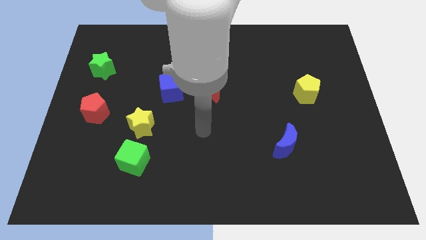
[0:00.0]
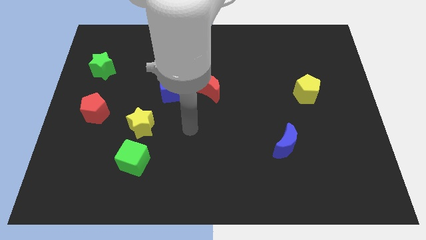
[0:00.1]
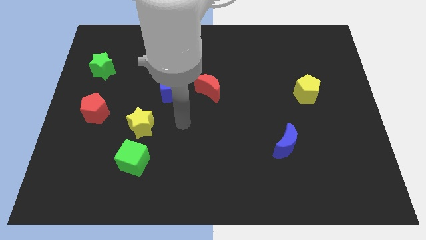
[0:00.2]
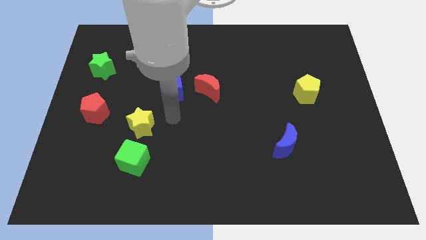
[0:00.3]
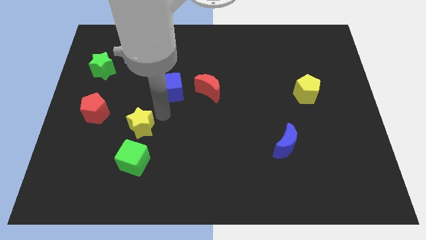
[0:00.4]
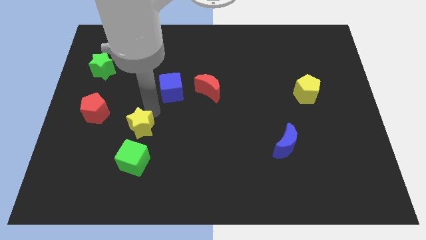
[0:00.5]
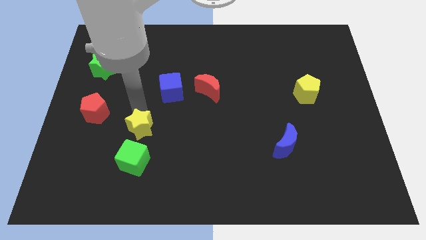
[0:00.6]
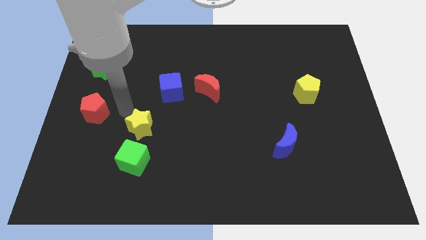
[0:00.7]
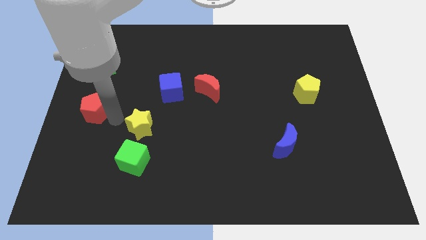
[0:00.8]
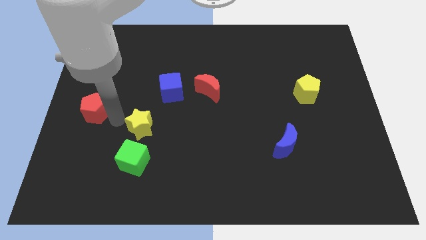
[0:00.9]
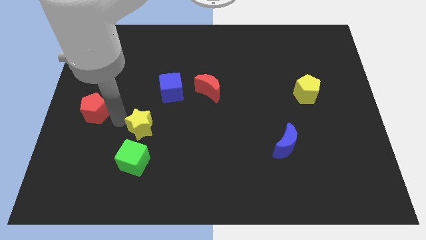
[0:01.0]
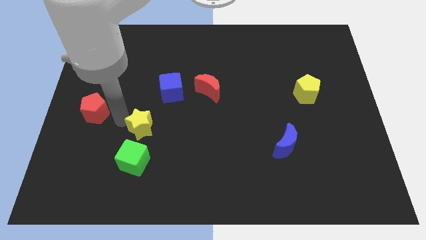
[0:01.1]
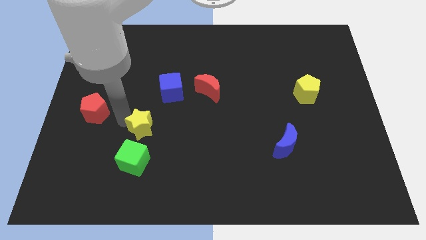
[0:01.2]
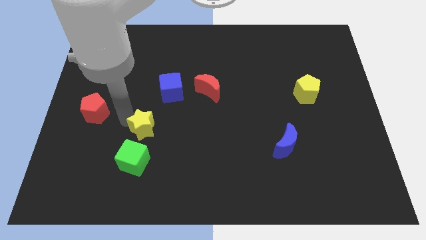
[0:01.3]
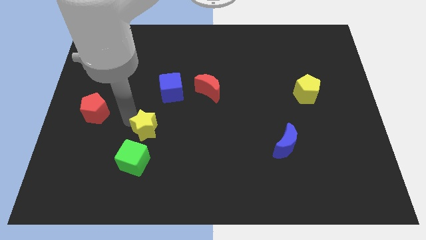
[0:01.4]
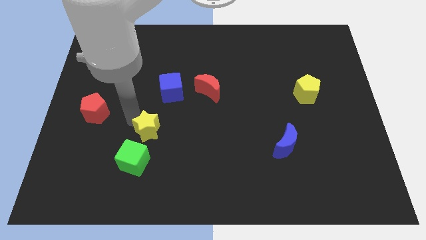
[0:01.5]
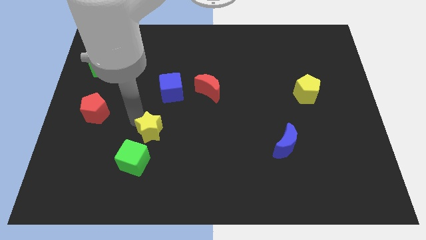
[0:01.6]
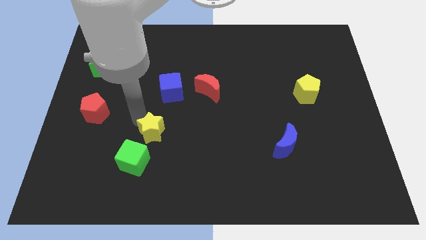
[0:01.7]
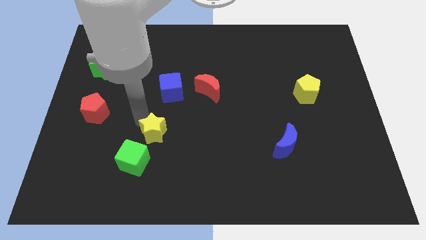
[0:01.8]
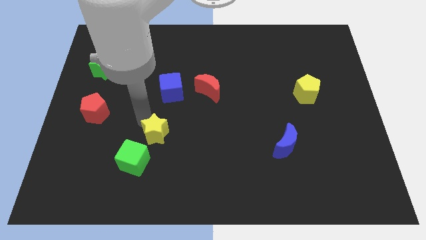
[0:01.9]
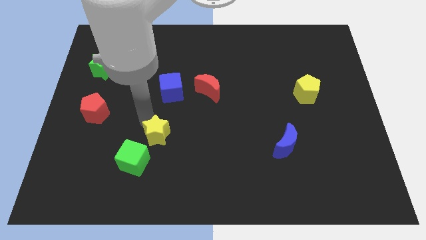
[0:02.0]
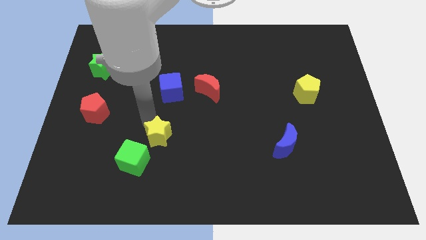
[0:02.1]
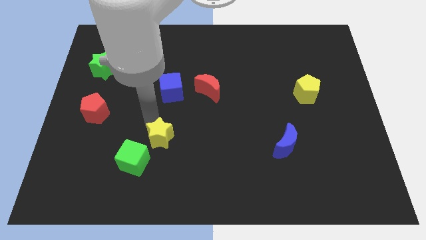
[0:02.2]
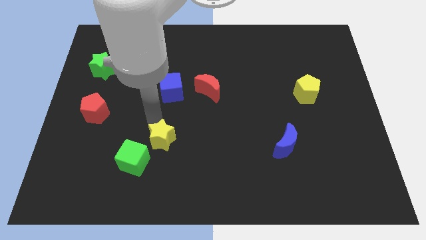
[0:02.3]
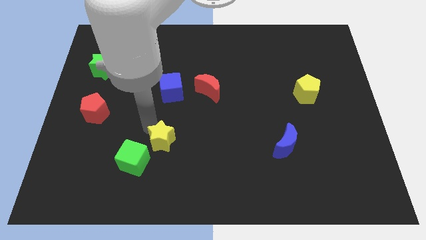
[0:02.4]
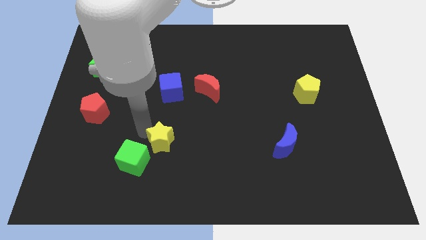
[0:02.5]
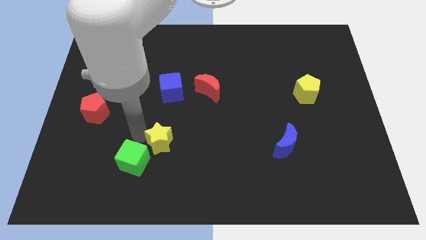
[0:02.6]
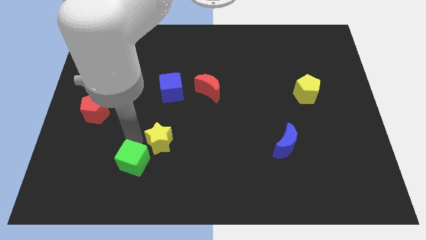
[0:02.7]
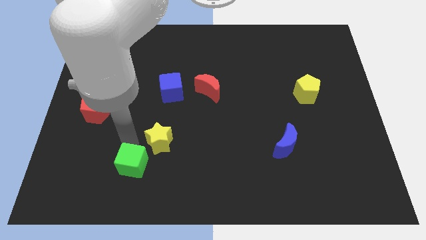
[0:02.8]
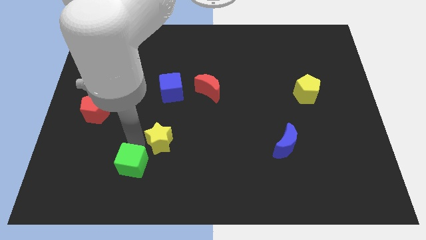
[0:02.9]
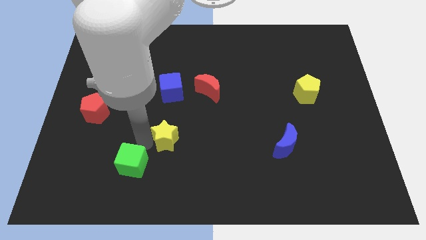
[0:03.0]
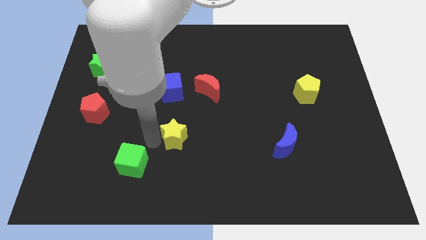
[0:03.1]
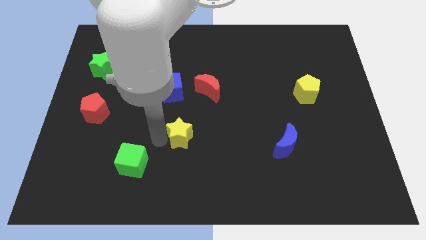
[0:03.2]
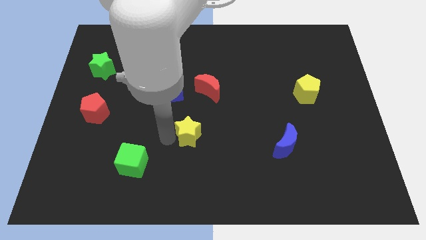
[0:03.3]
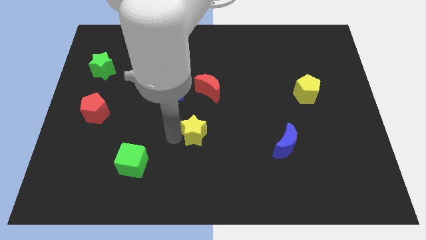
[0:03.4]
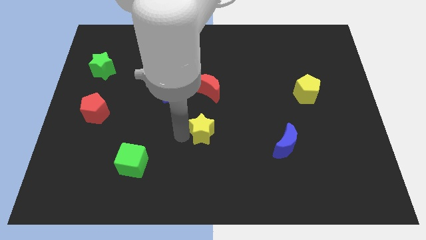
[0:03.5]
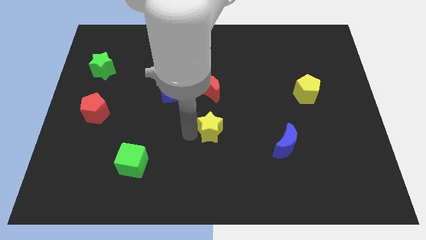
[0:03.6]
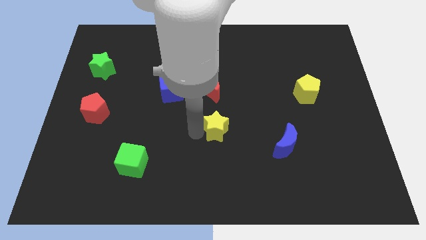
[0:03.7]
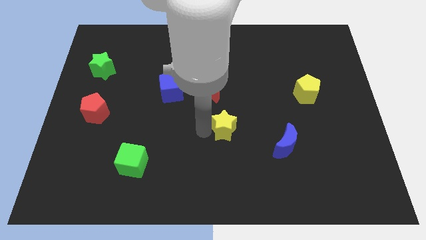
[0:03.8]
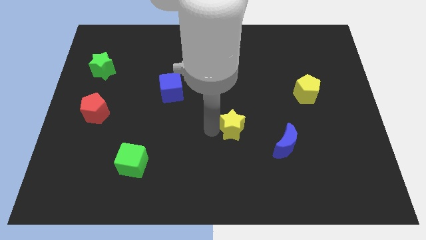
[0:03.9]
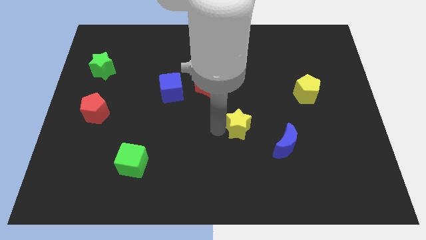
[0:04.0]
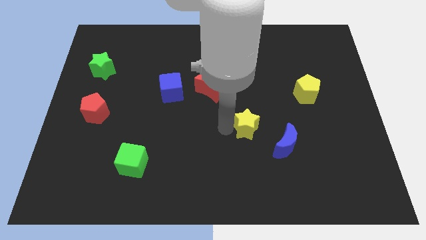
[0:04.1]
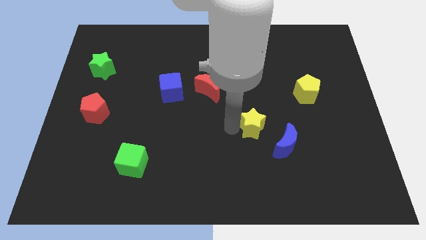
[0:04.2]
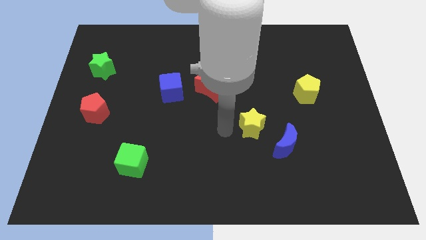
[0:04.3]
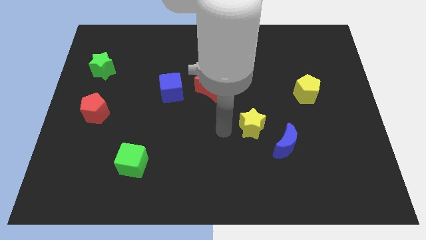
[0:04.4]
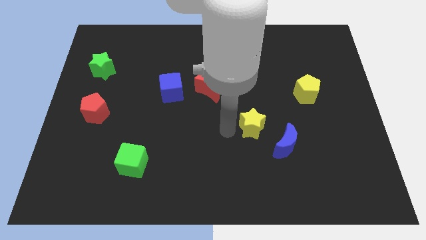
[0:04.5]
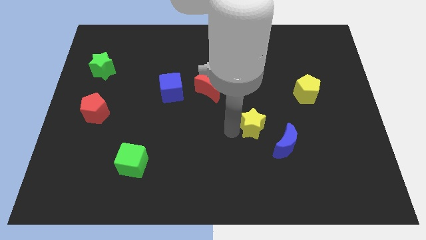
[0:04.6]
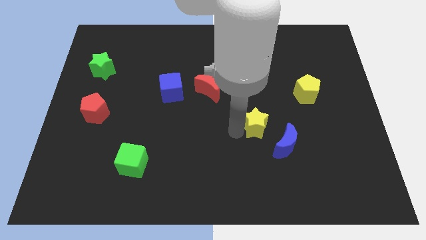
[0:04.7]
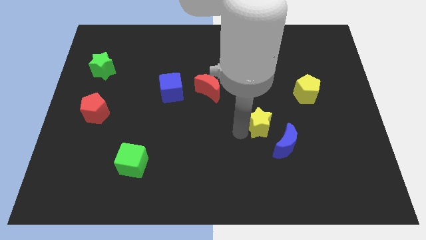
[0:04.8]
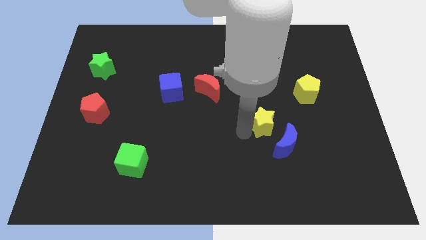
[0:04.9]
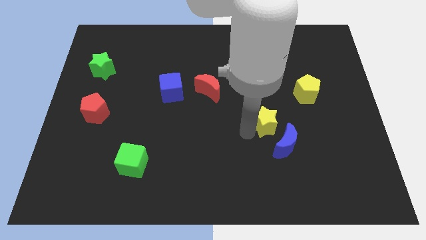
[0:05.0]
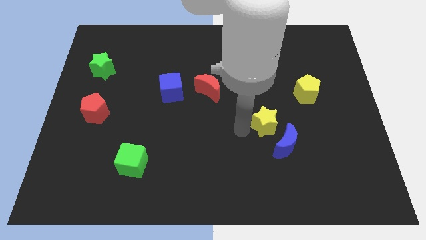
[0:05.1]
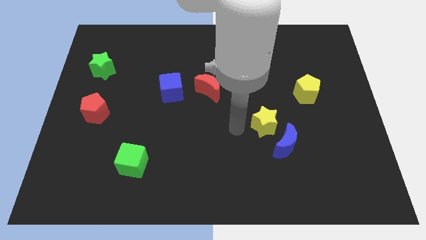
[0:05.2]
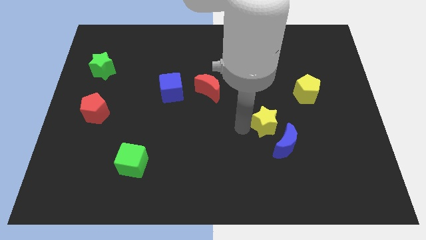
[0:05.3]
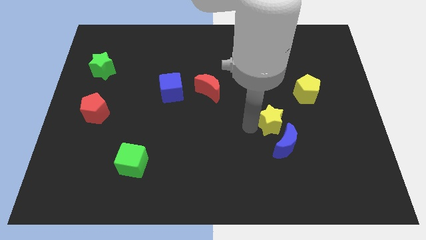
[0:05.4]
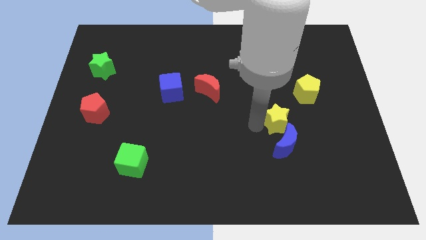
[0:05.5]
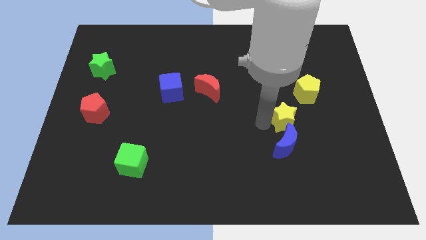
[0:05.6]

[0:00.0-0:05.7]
push the yellow star to the top right of the blue moon

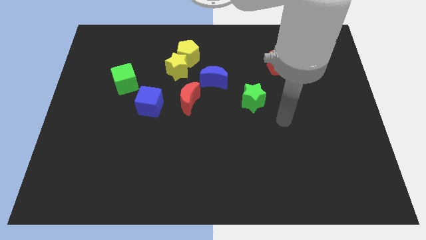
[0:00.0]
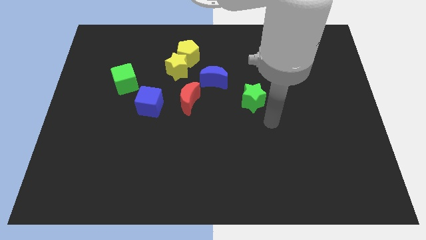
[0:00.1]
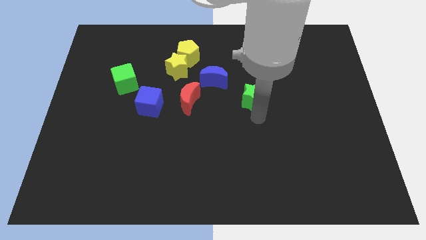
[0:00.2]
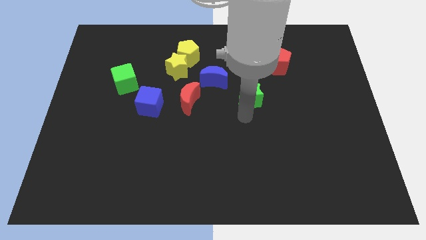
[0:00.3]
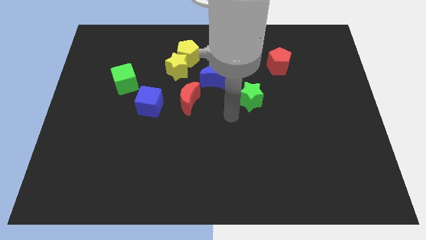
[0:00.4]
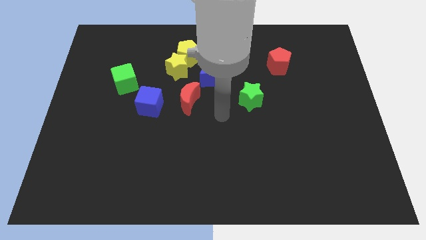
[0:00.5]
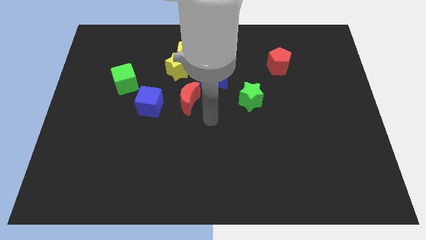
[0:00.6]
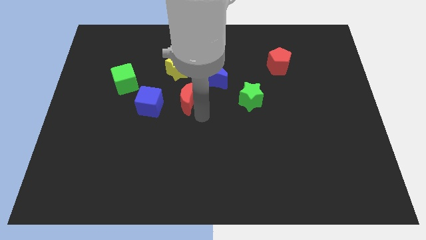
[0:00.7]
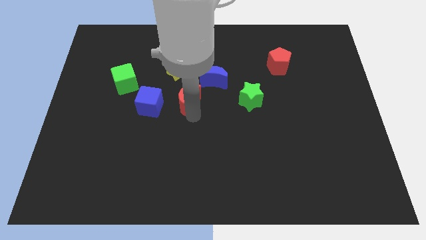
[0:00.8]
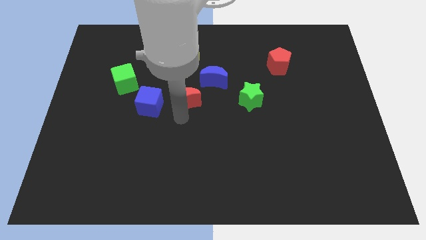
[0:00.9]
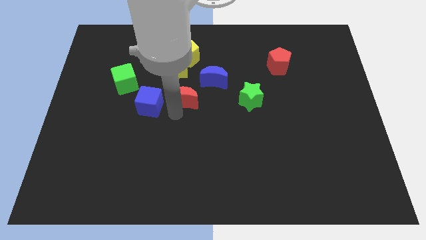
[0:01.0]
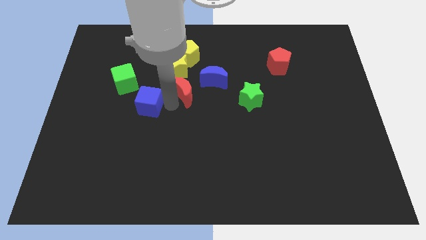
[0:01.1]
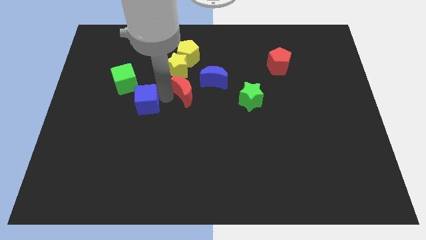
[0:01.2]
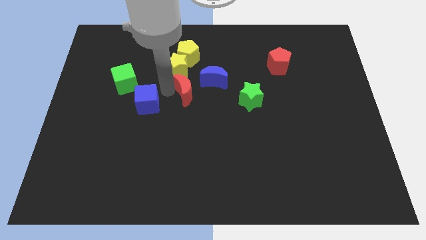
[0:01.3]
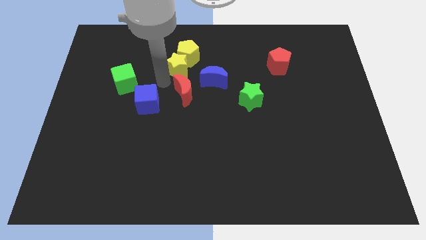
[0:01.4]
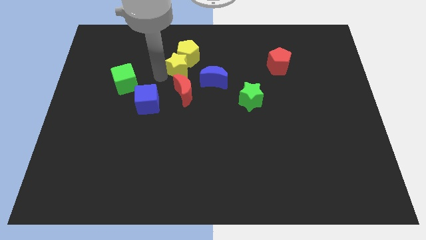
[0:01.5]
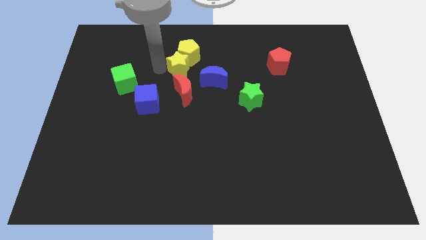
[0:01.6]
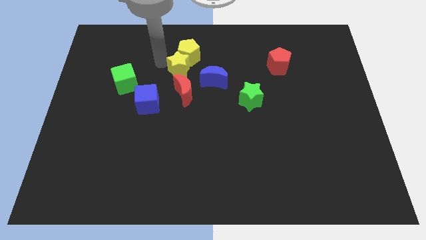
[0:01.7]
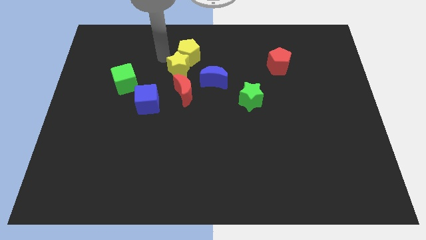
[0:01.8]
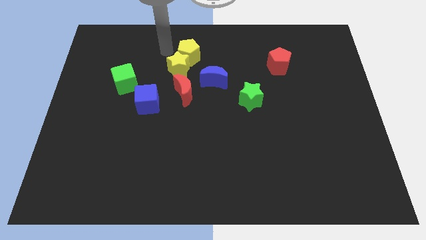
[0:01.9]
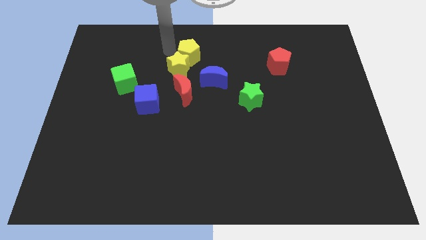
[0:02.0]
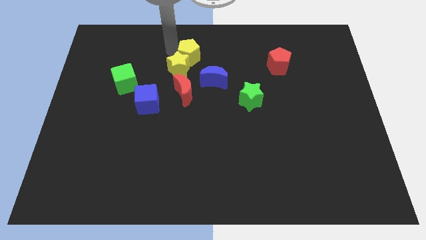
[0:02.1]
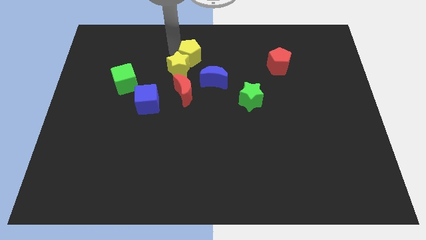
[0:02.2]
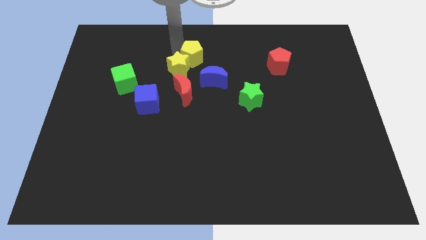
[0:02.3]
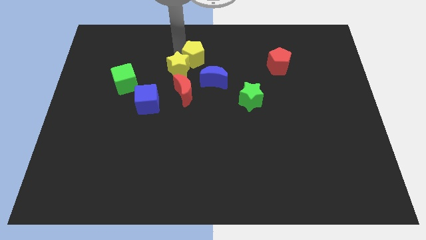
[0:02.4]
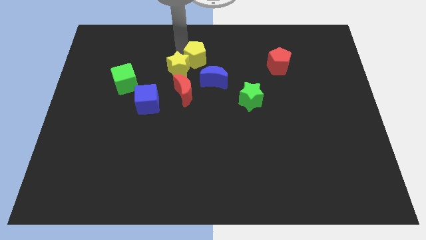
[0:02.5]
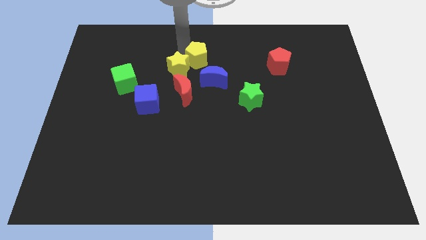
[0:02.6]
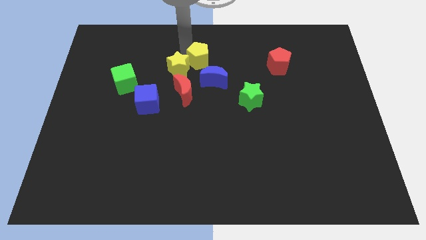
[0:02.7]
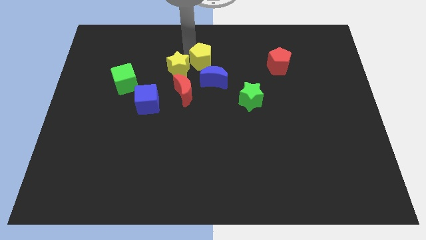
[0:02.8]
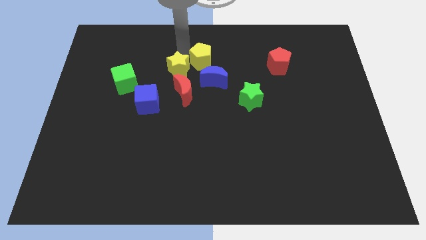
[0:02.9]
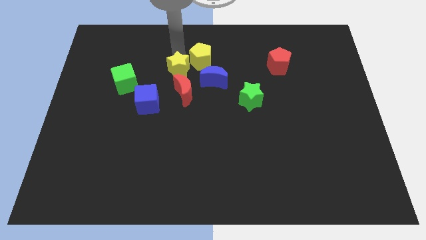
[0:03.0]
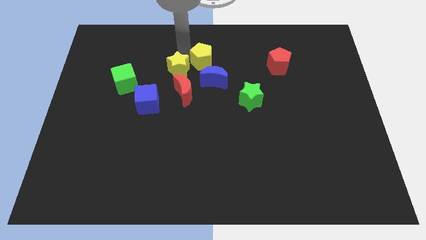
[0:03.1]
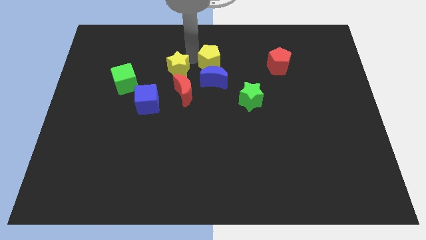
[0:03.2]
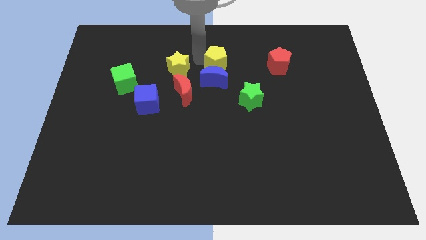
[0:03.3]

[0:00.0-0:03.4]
push the yellow pentagon to the top right side of the blue moon
